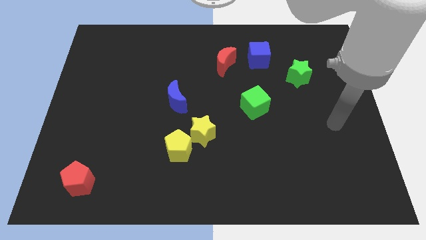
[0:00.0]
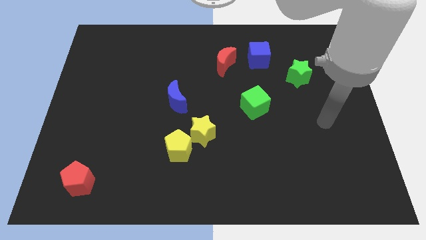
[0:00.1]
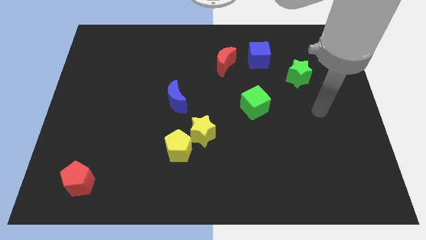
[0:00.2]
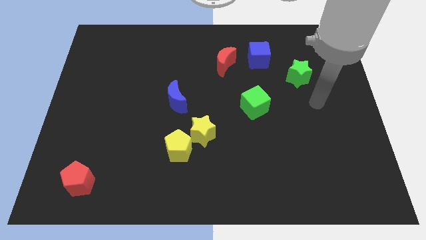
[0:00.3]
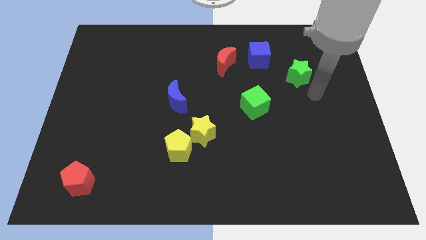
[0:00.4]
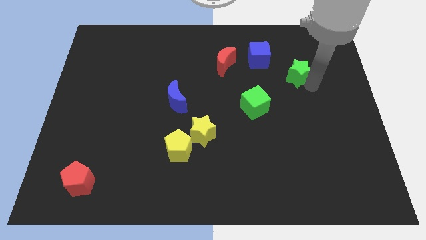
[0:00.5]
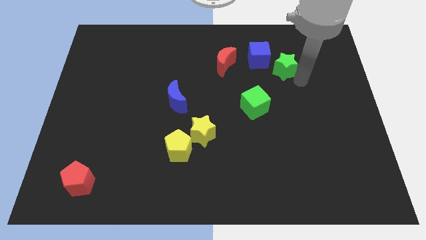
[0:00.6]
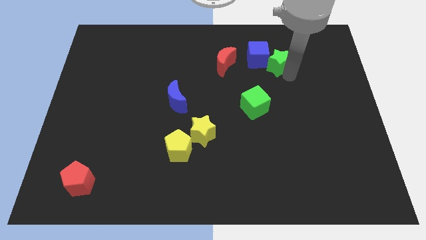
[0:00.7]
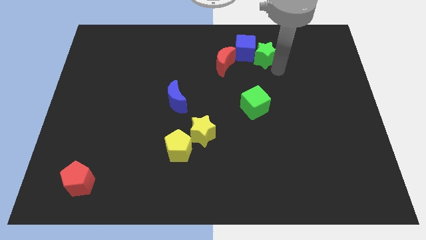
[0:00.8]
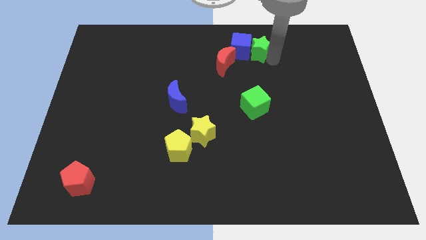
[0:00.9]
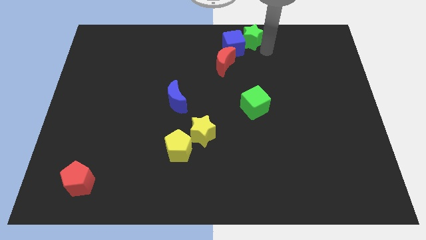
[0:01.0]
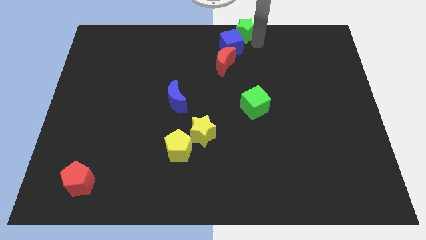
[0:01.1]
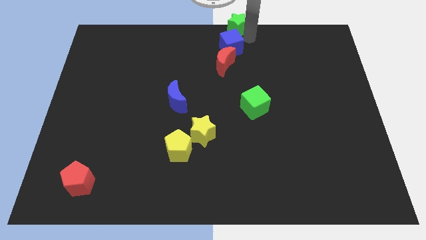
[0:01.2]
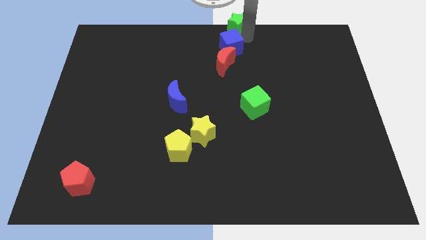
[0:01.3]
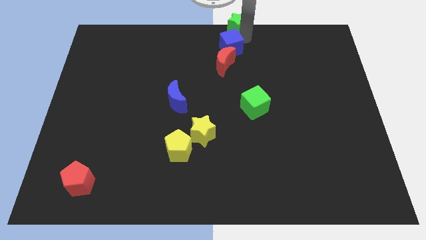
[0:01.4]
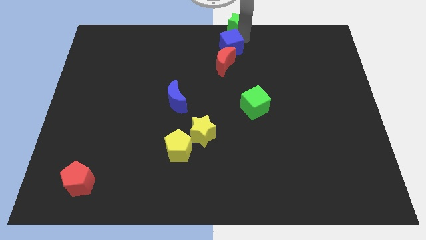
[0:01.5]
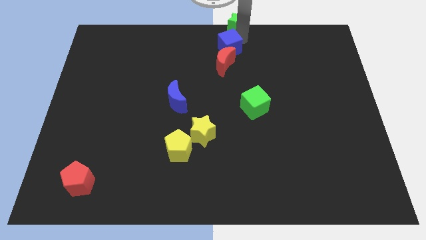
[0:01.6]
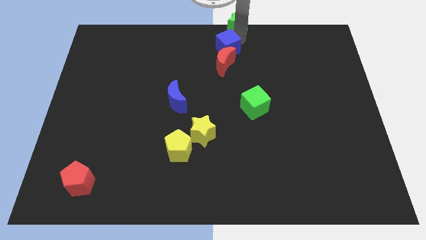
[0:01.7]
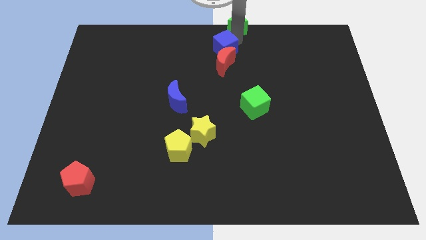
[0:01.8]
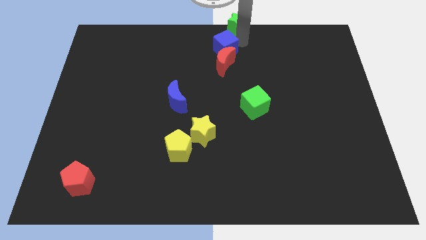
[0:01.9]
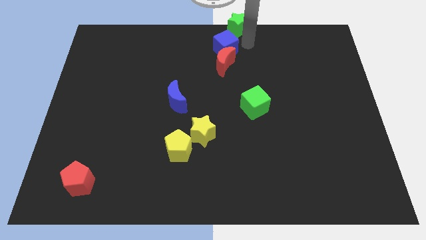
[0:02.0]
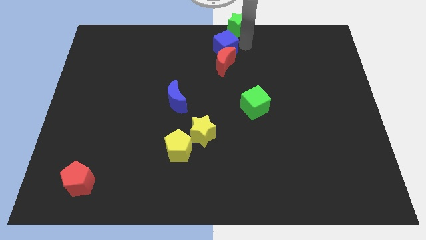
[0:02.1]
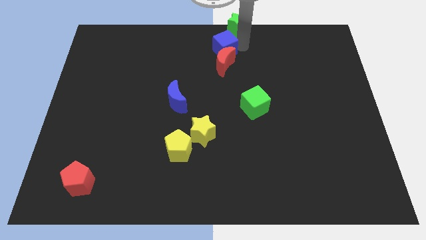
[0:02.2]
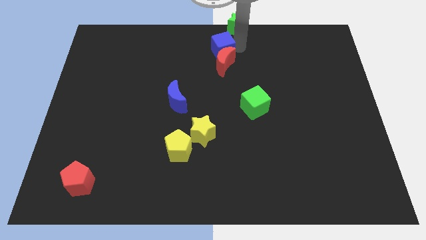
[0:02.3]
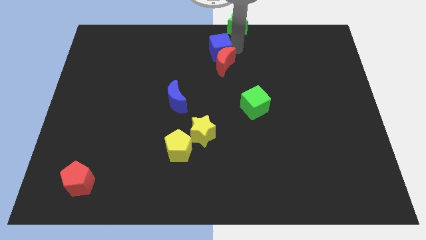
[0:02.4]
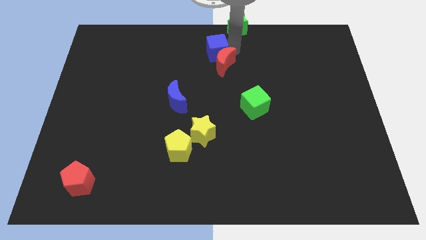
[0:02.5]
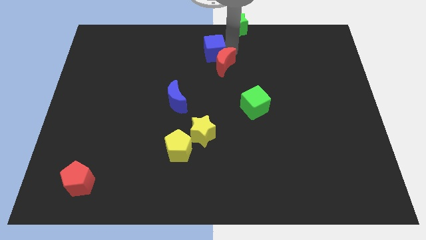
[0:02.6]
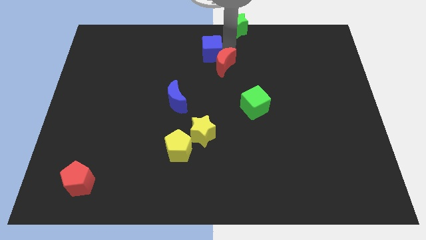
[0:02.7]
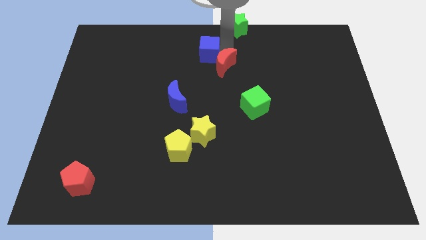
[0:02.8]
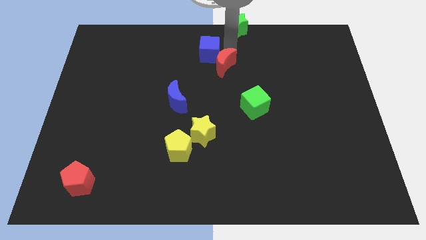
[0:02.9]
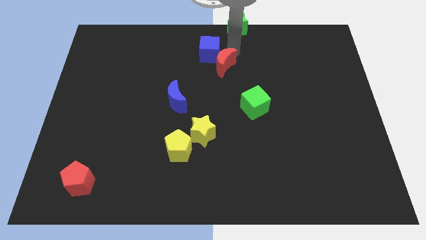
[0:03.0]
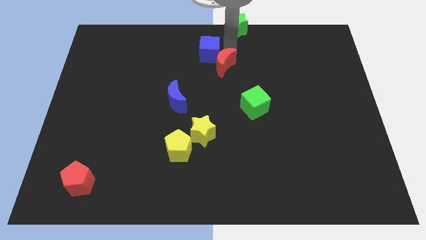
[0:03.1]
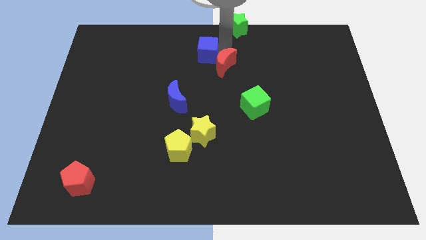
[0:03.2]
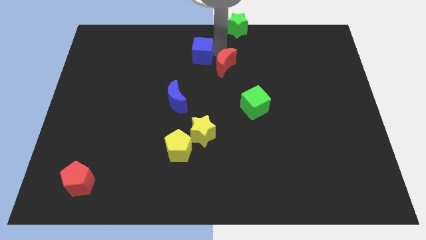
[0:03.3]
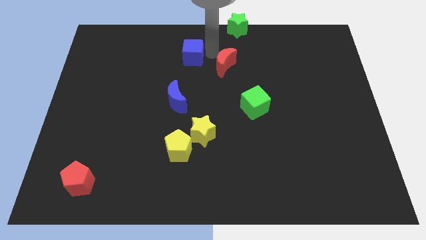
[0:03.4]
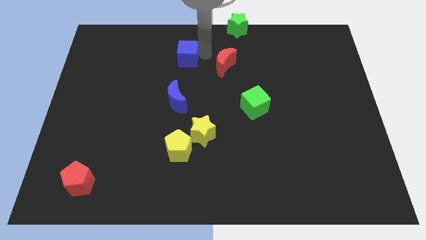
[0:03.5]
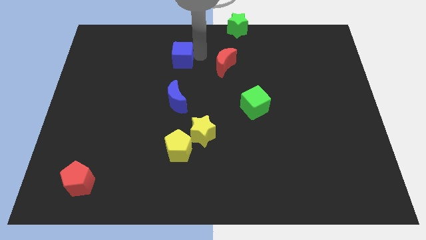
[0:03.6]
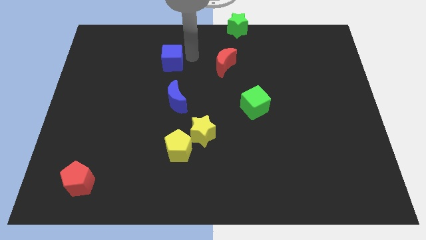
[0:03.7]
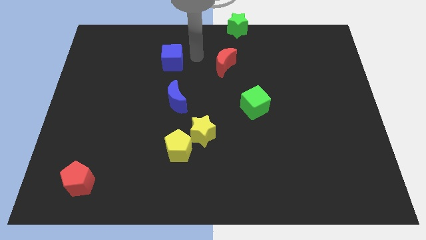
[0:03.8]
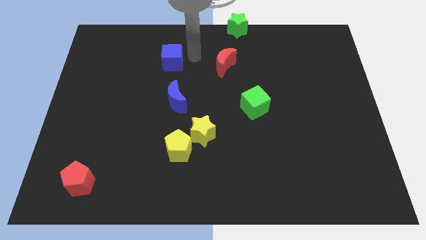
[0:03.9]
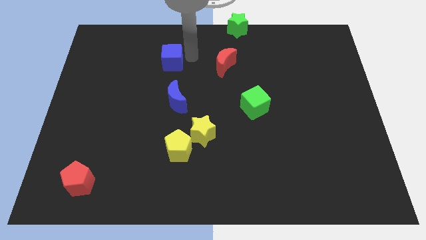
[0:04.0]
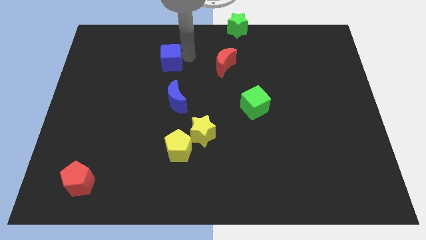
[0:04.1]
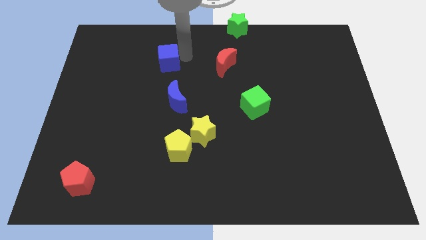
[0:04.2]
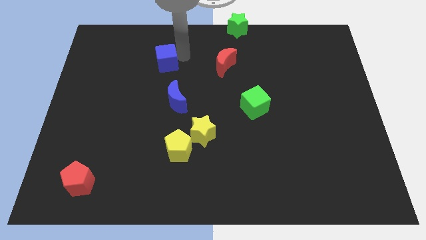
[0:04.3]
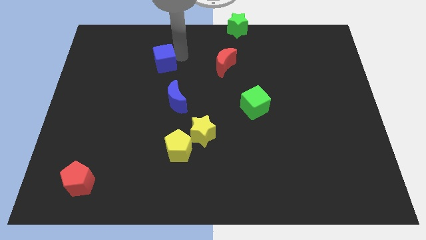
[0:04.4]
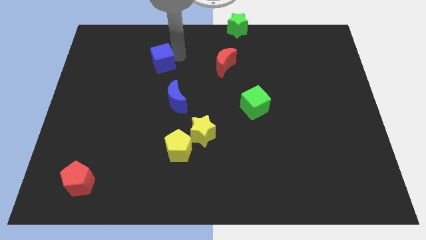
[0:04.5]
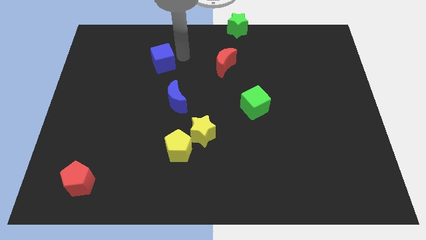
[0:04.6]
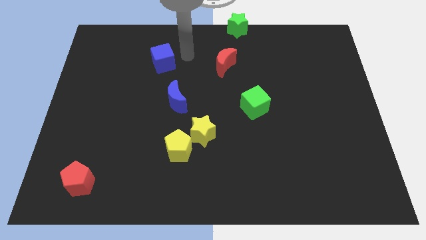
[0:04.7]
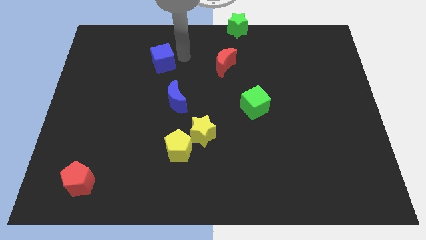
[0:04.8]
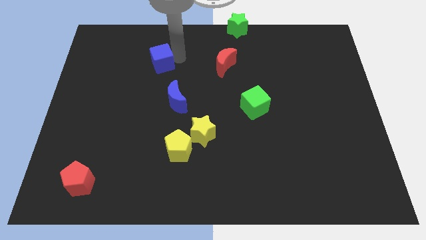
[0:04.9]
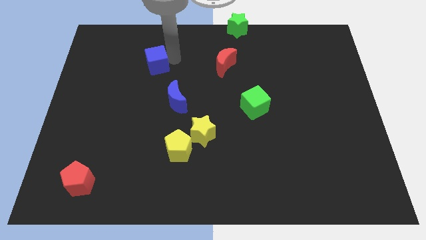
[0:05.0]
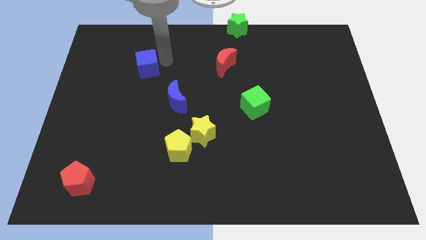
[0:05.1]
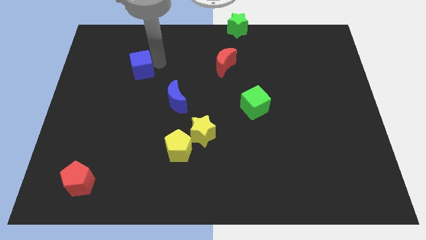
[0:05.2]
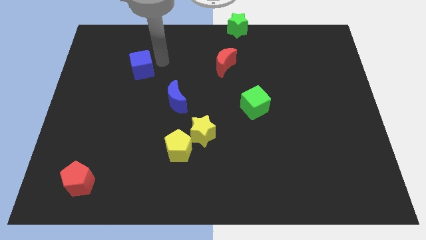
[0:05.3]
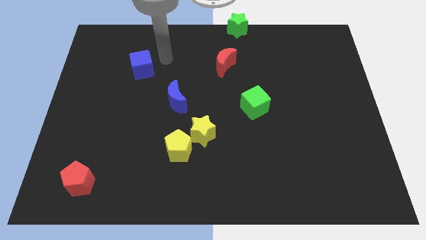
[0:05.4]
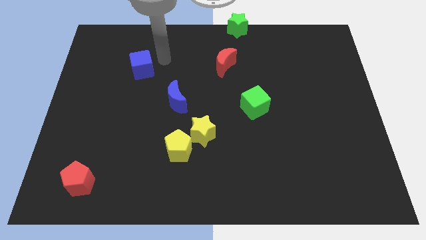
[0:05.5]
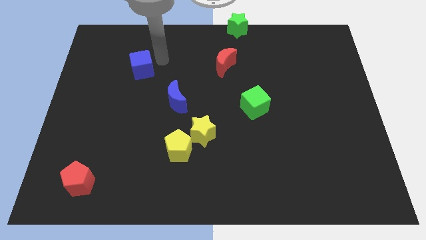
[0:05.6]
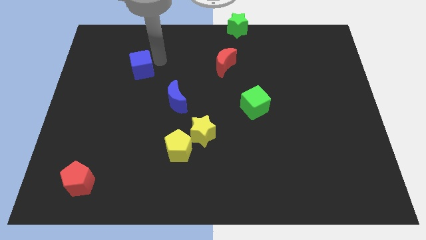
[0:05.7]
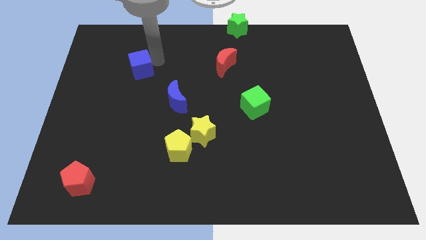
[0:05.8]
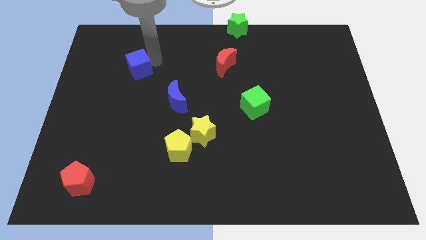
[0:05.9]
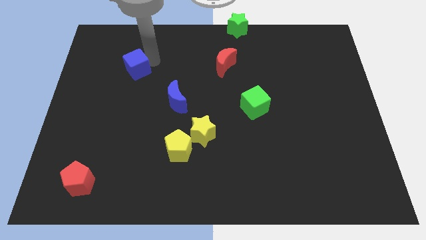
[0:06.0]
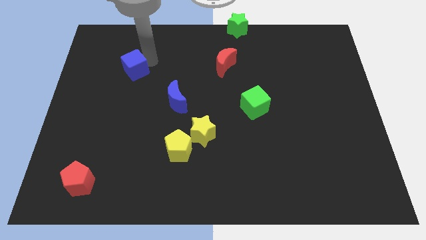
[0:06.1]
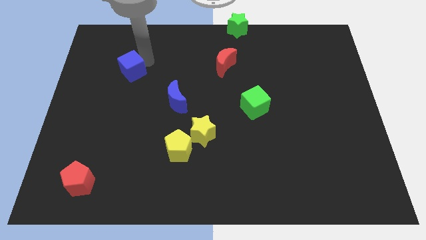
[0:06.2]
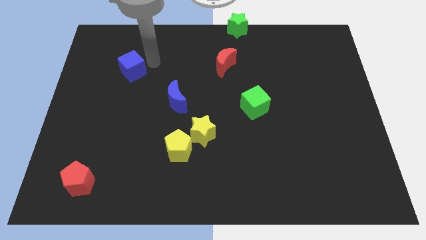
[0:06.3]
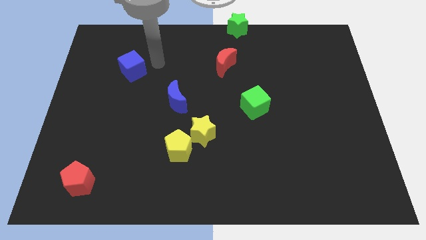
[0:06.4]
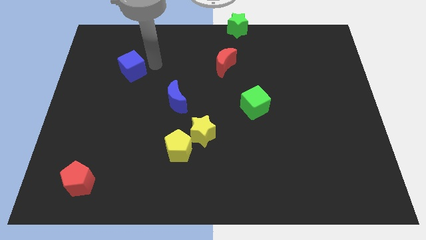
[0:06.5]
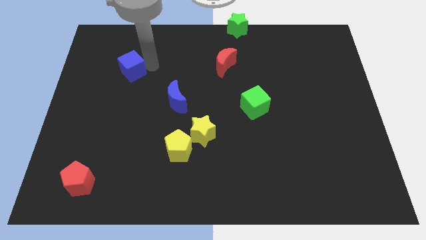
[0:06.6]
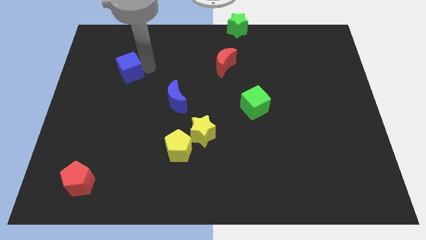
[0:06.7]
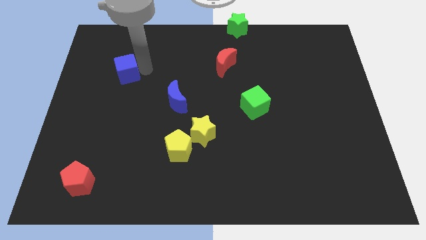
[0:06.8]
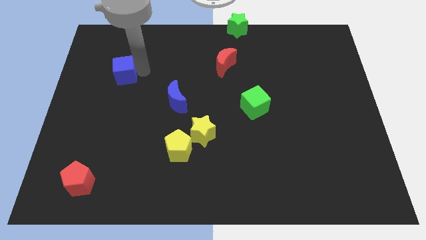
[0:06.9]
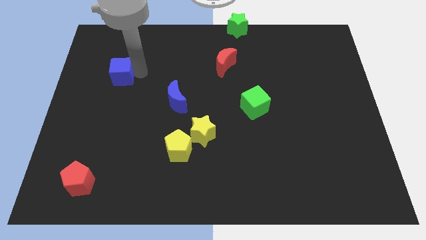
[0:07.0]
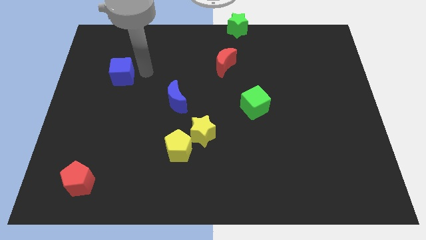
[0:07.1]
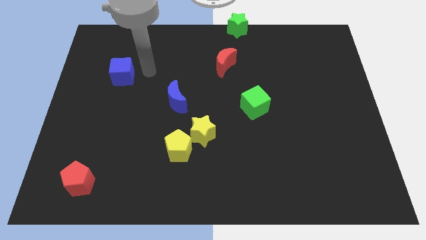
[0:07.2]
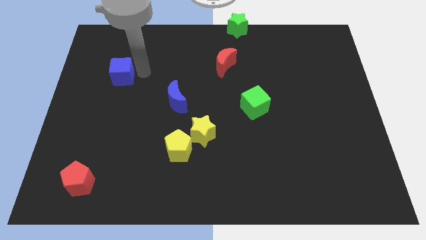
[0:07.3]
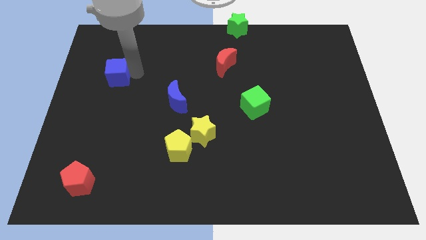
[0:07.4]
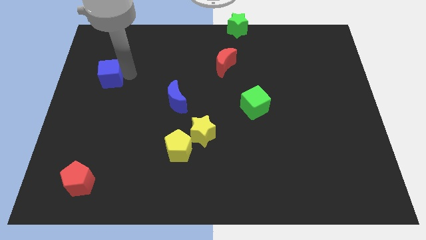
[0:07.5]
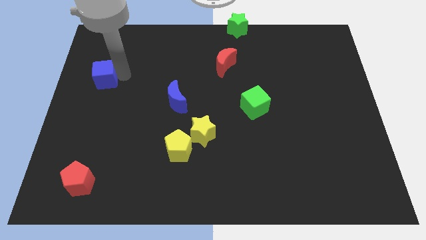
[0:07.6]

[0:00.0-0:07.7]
slide the blue cube to the center left
